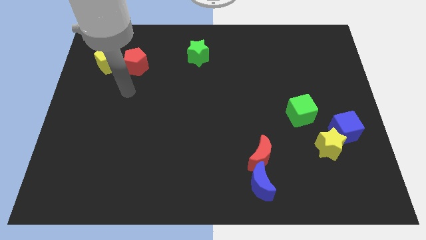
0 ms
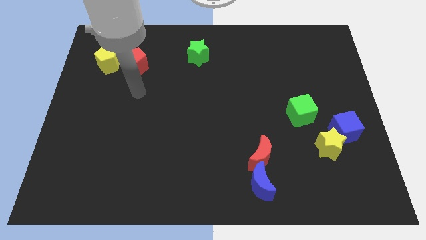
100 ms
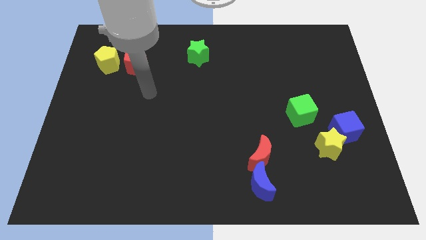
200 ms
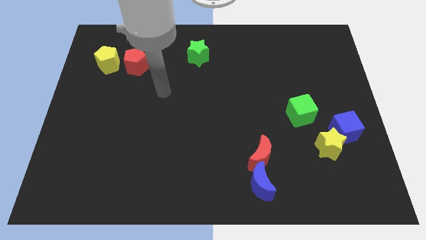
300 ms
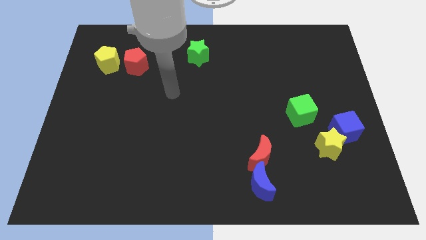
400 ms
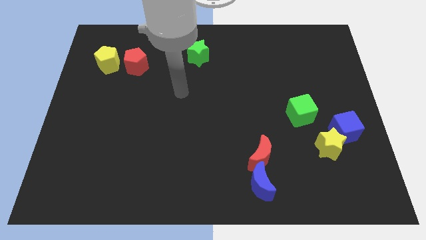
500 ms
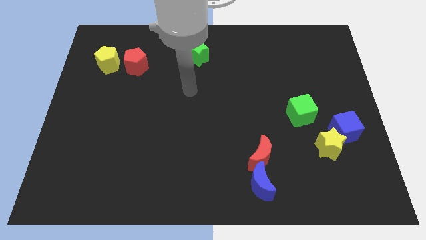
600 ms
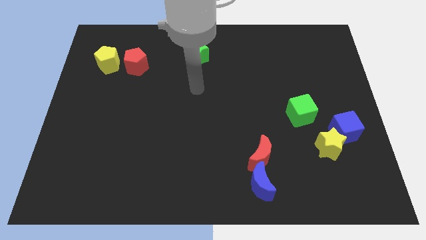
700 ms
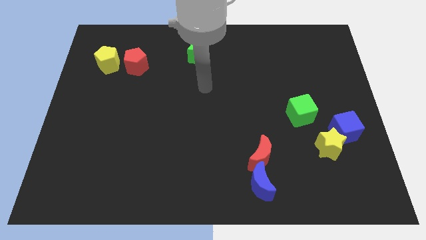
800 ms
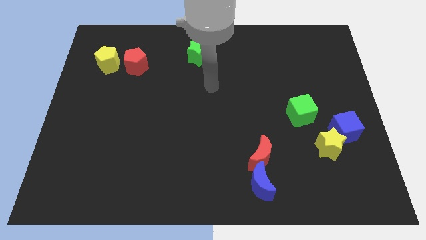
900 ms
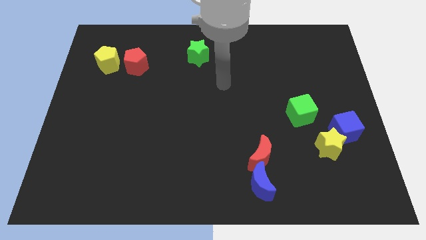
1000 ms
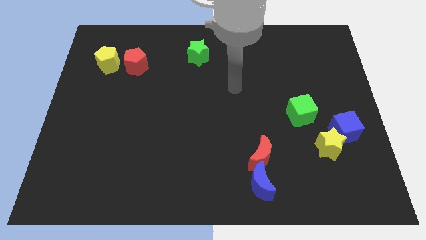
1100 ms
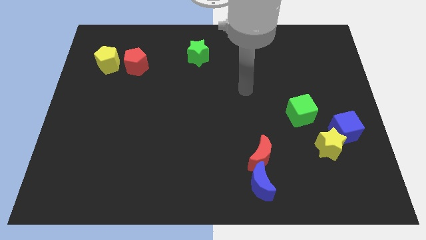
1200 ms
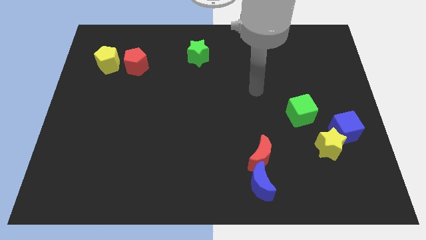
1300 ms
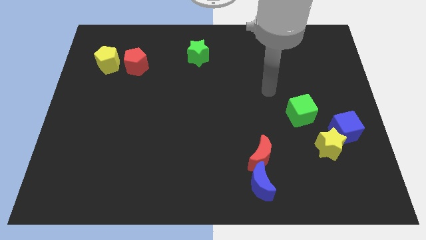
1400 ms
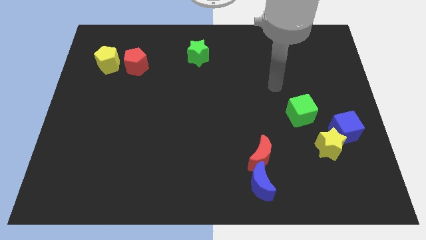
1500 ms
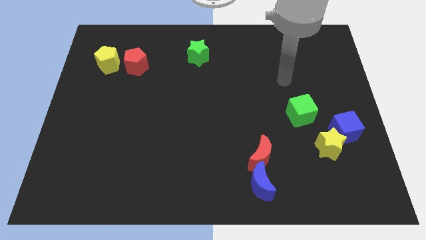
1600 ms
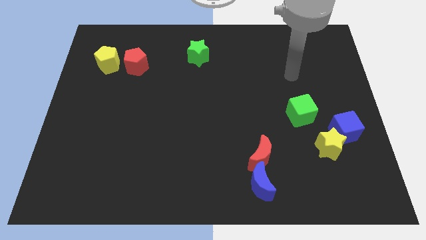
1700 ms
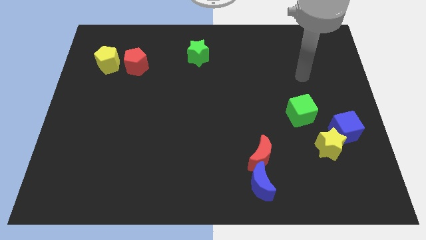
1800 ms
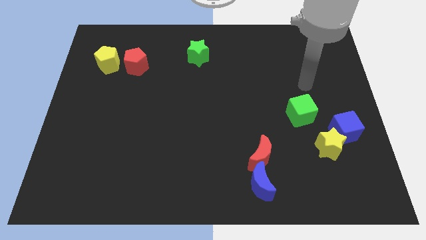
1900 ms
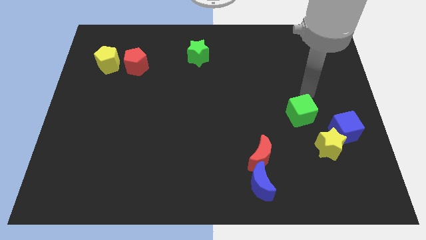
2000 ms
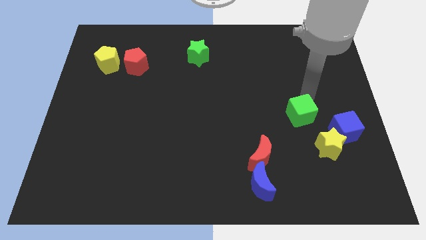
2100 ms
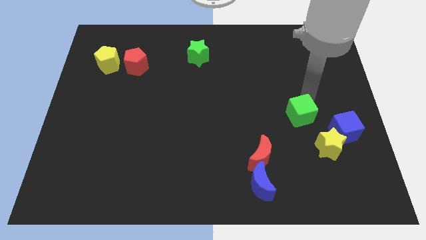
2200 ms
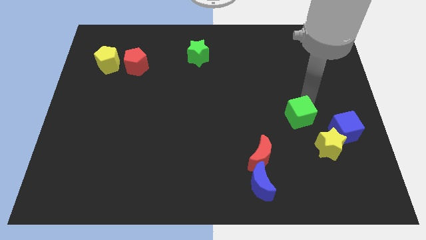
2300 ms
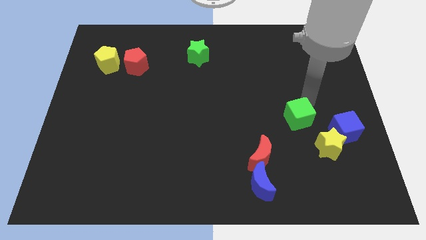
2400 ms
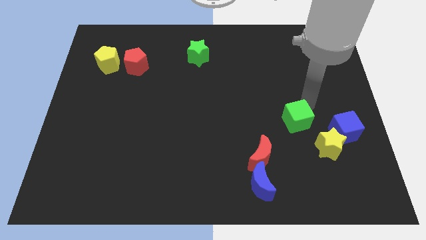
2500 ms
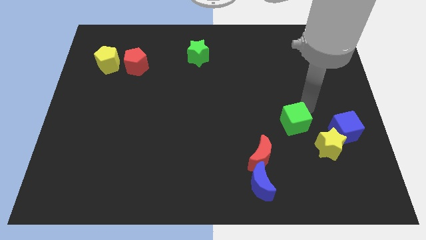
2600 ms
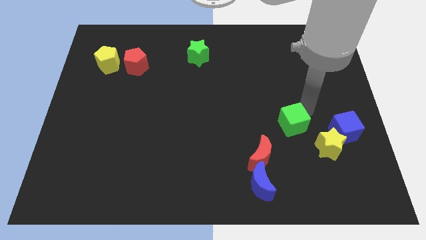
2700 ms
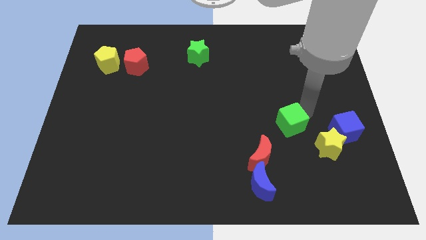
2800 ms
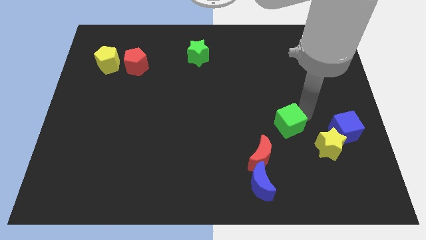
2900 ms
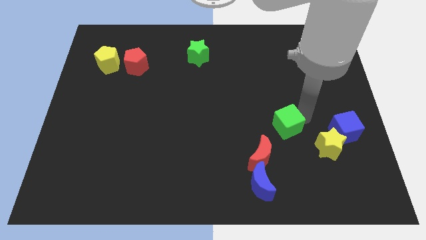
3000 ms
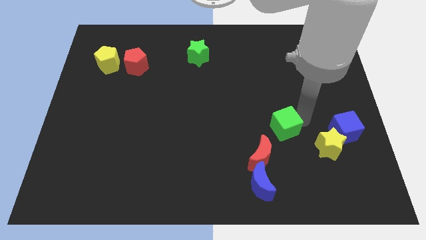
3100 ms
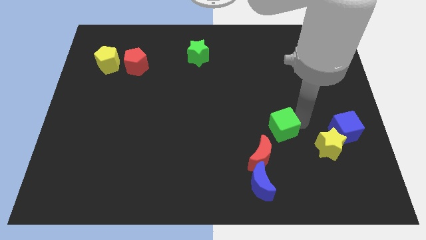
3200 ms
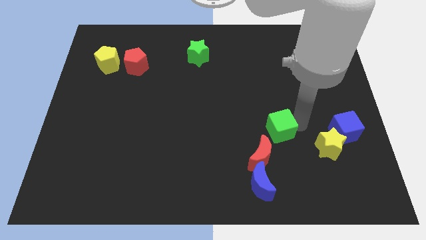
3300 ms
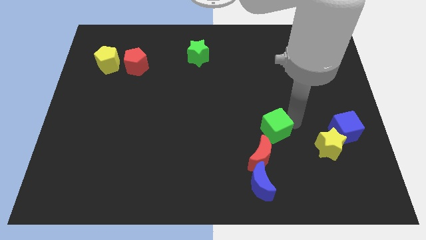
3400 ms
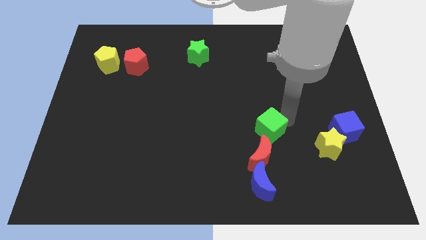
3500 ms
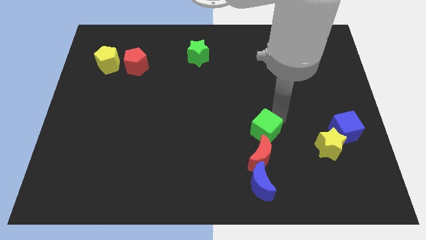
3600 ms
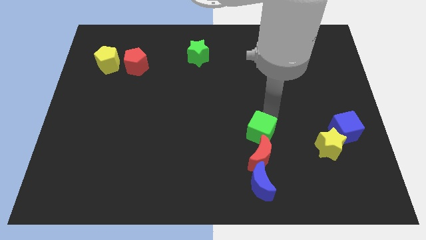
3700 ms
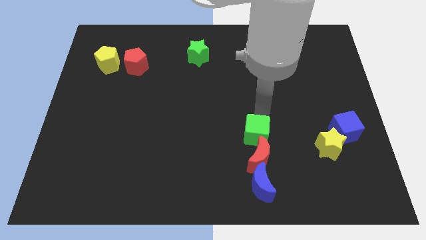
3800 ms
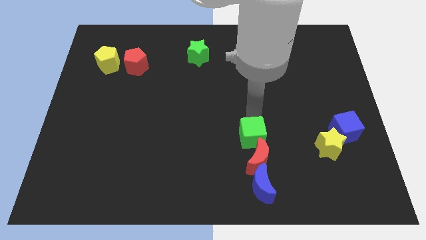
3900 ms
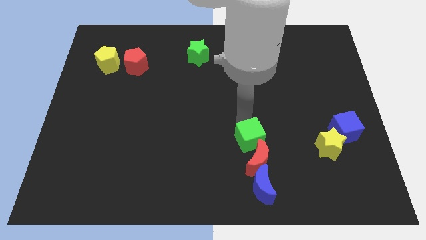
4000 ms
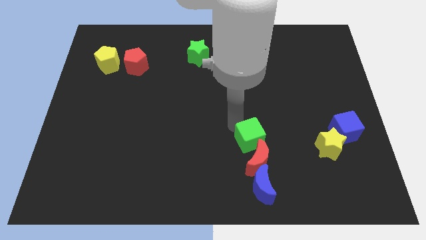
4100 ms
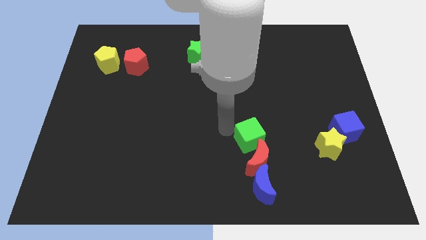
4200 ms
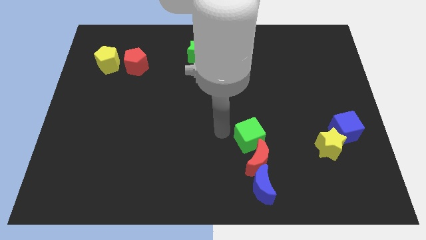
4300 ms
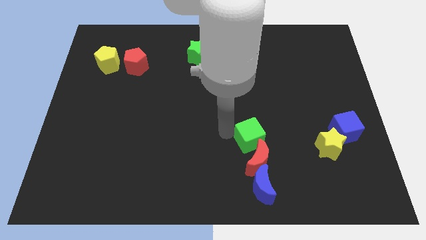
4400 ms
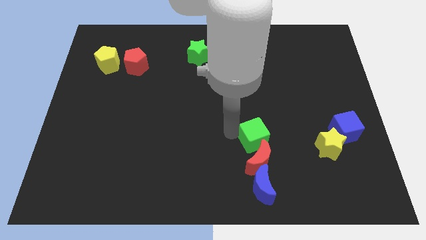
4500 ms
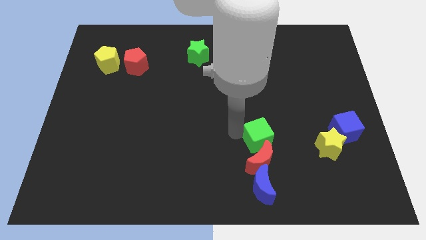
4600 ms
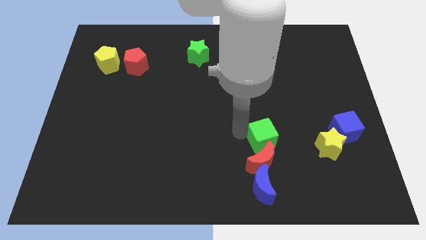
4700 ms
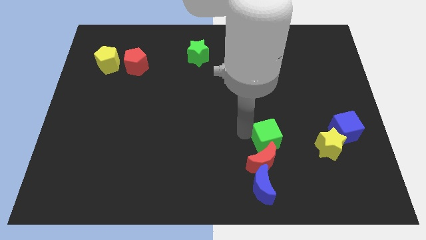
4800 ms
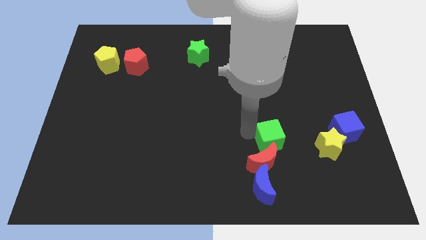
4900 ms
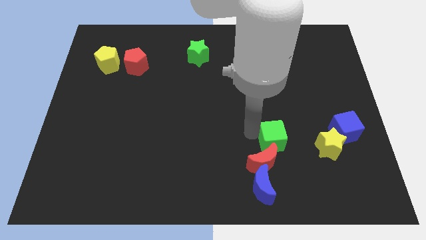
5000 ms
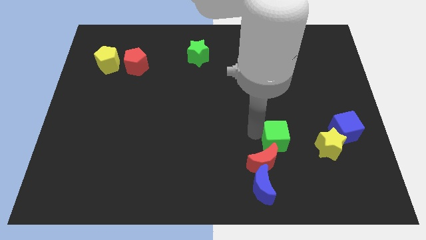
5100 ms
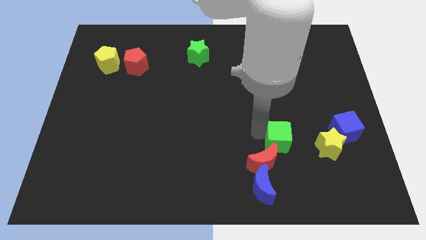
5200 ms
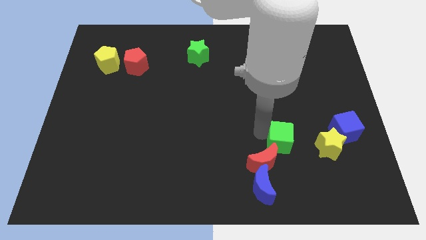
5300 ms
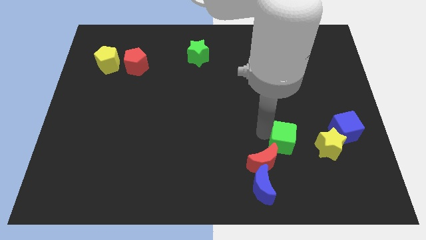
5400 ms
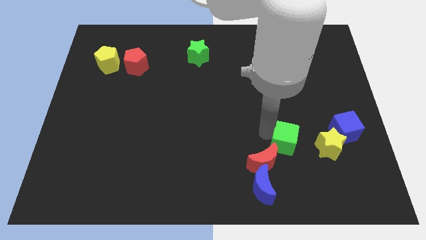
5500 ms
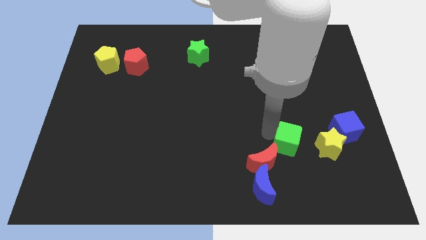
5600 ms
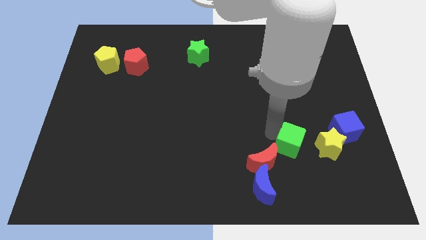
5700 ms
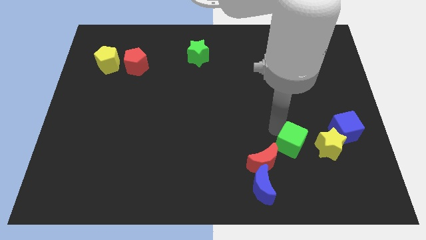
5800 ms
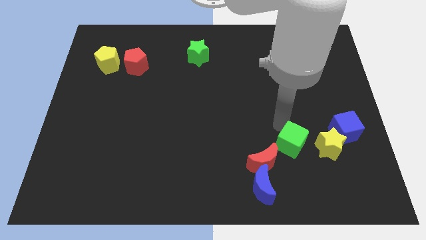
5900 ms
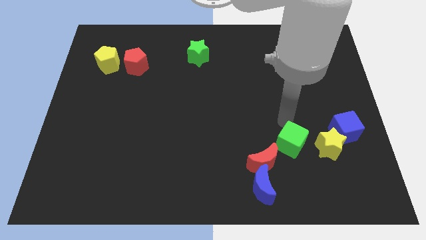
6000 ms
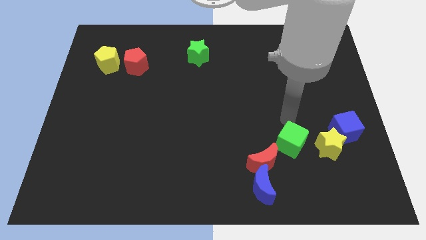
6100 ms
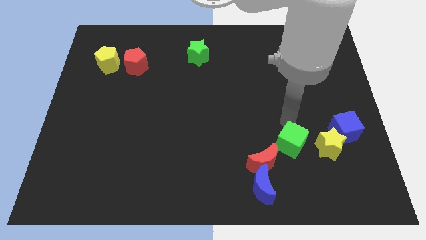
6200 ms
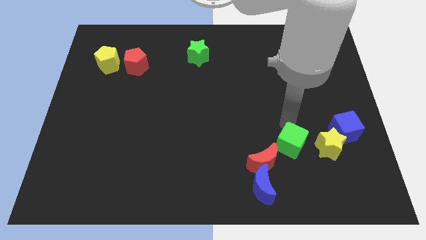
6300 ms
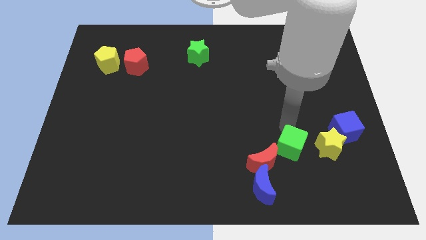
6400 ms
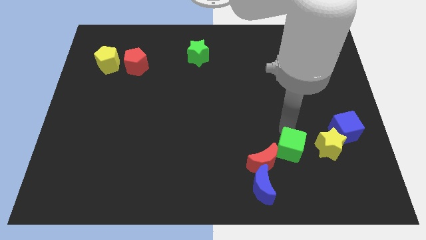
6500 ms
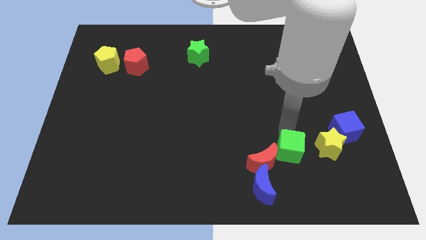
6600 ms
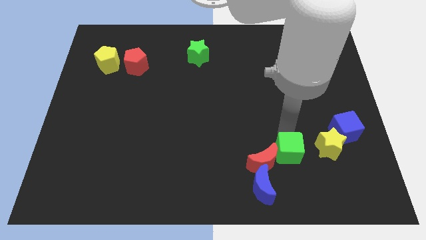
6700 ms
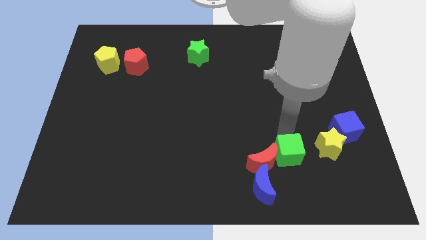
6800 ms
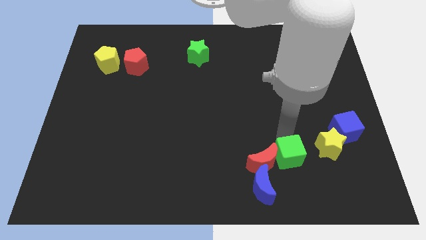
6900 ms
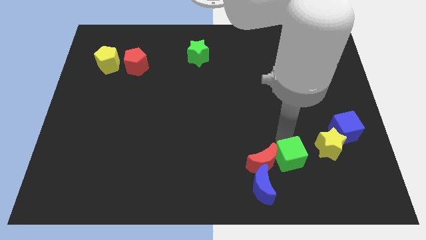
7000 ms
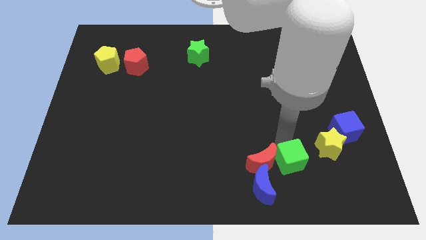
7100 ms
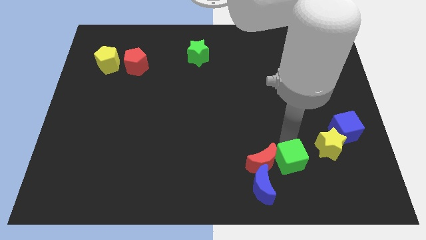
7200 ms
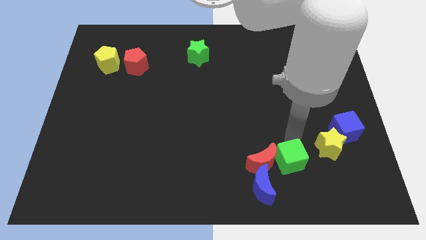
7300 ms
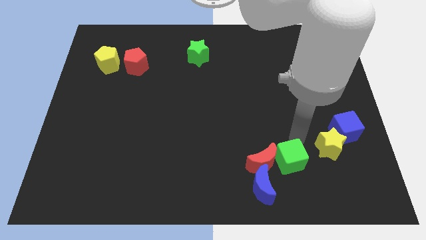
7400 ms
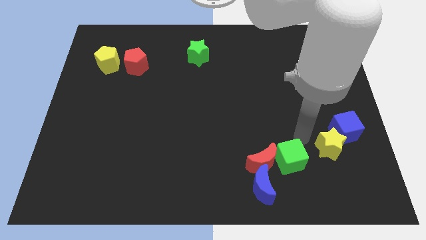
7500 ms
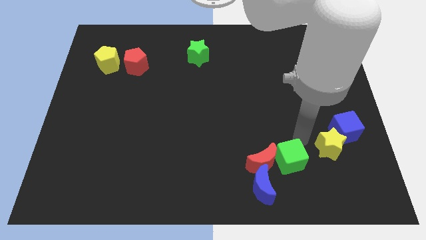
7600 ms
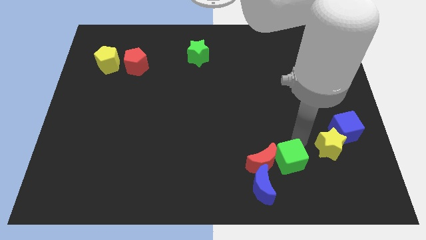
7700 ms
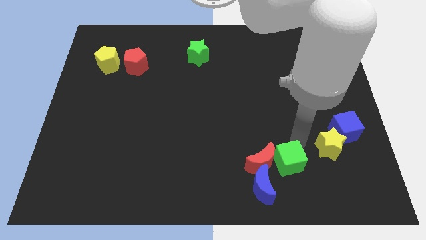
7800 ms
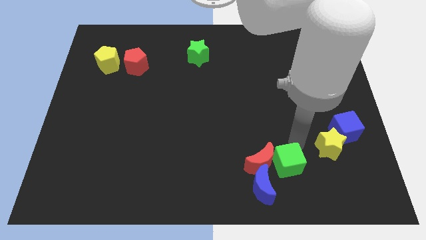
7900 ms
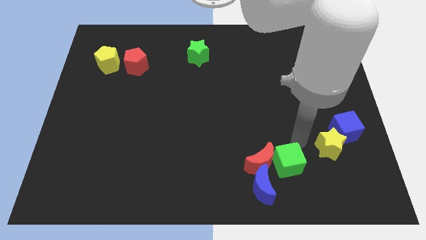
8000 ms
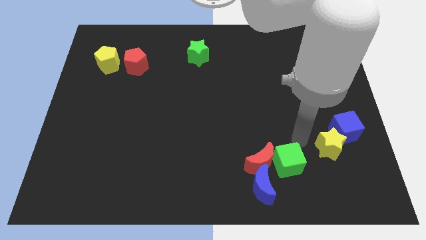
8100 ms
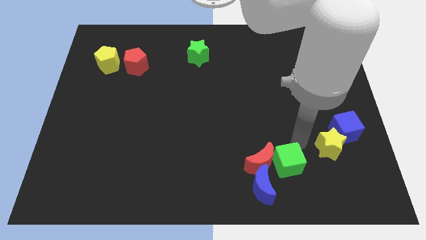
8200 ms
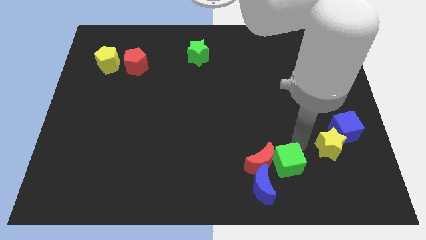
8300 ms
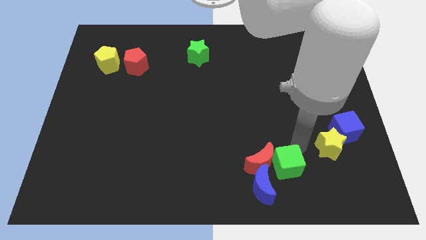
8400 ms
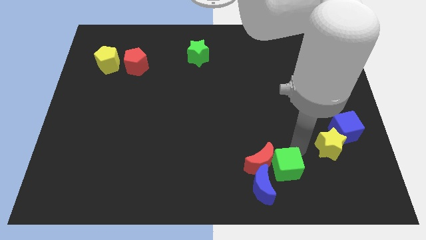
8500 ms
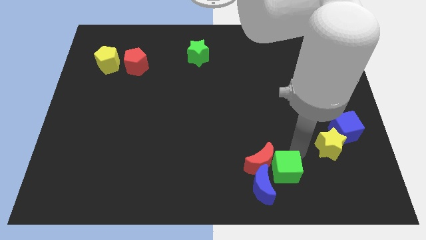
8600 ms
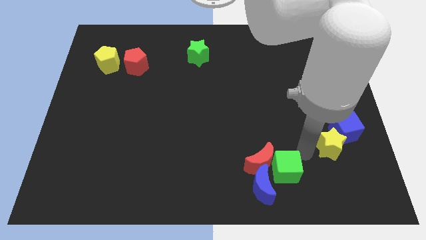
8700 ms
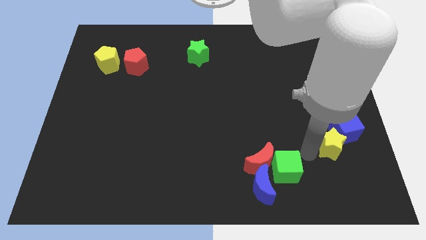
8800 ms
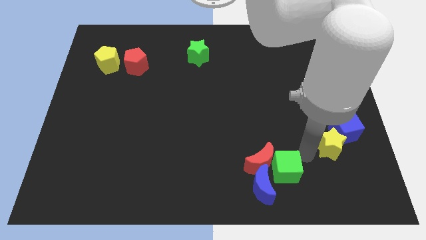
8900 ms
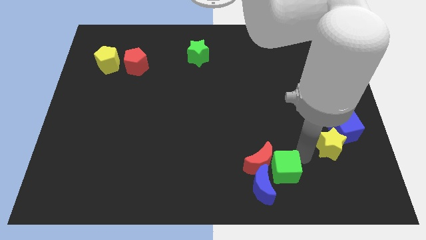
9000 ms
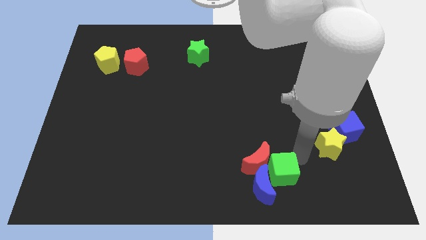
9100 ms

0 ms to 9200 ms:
move the green cube to the blue moon
